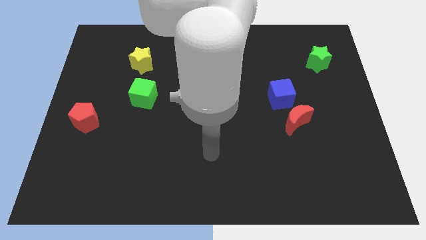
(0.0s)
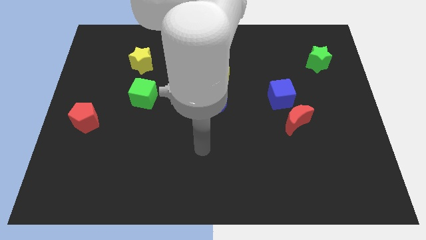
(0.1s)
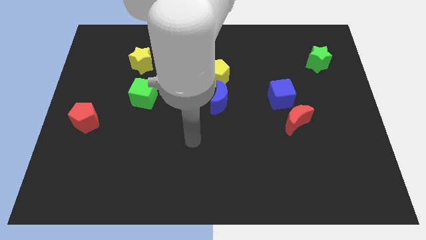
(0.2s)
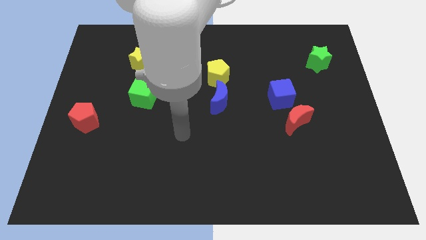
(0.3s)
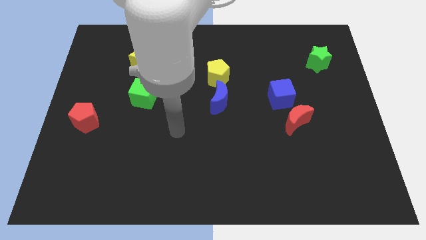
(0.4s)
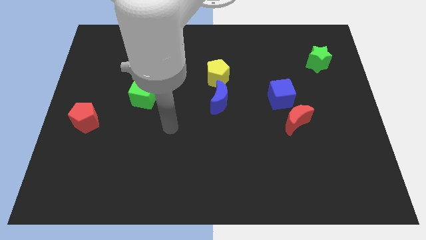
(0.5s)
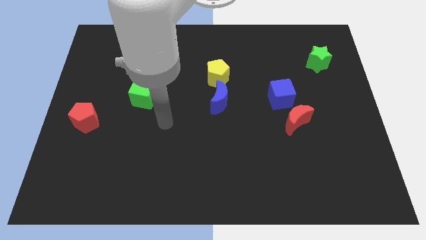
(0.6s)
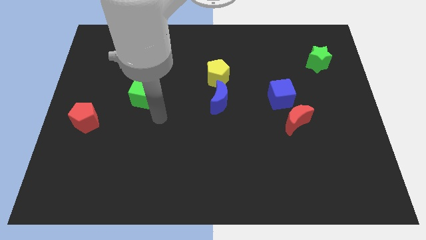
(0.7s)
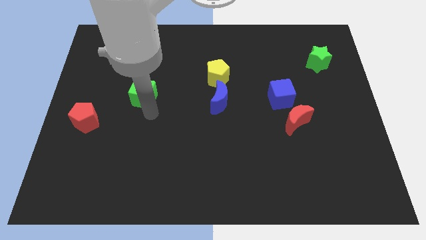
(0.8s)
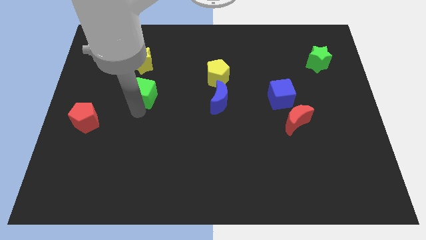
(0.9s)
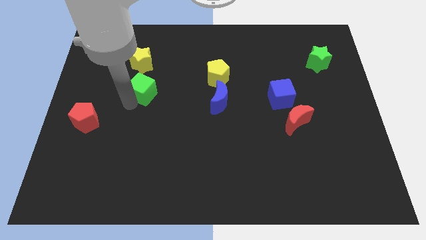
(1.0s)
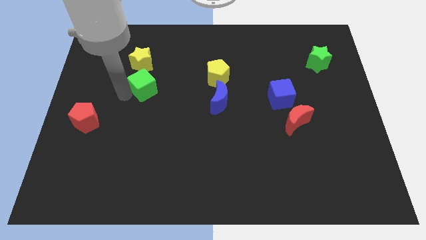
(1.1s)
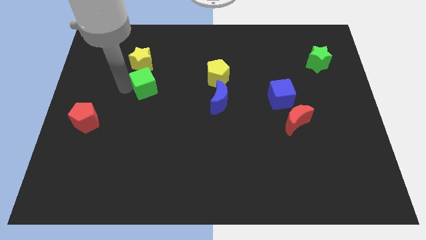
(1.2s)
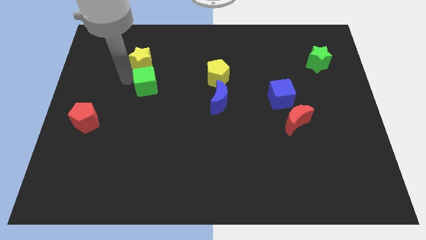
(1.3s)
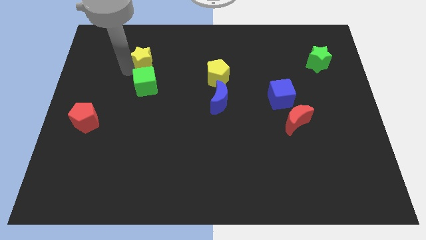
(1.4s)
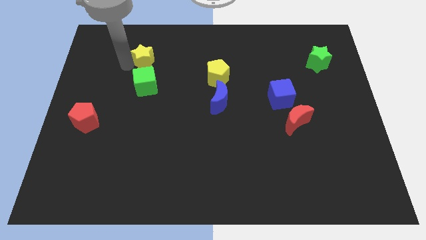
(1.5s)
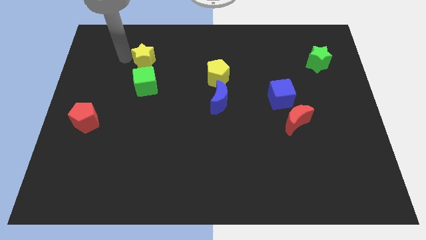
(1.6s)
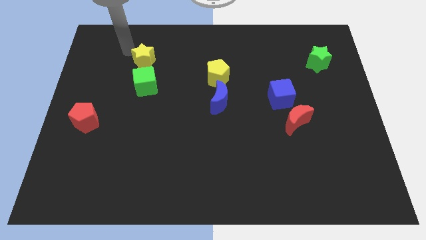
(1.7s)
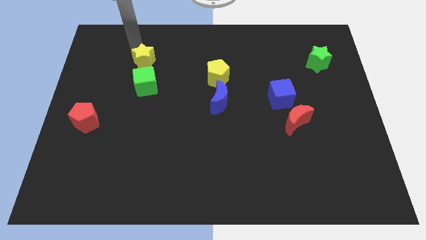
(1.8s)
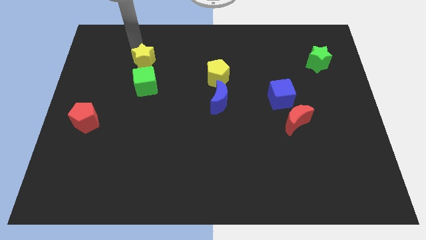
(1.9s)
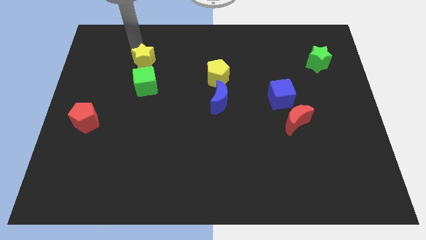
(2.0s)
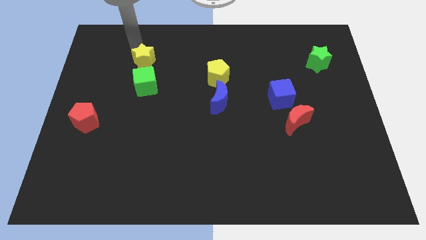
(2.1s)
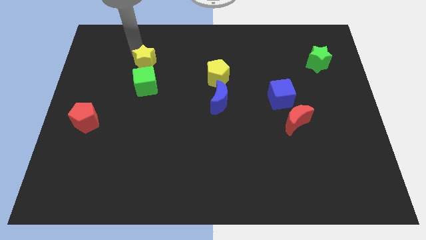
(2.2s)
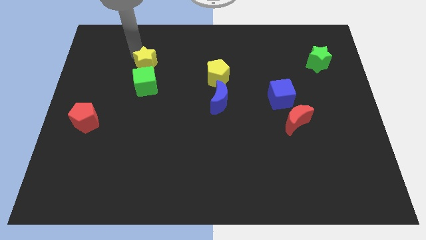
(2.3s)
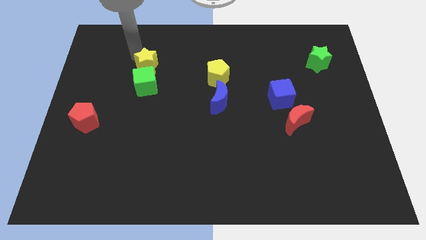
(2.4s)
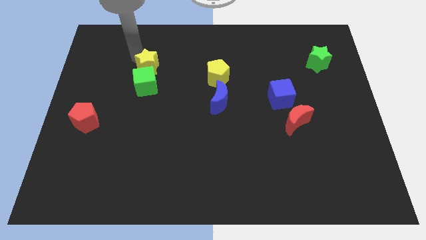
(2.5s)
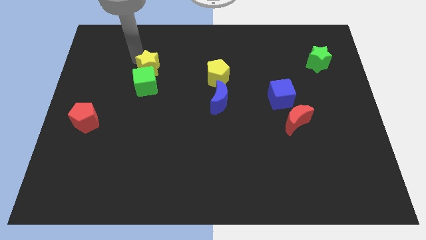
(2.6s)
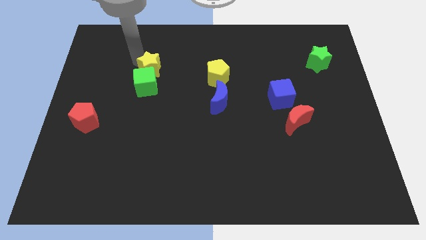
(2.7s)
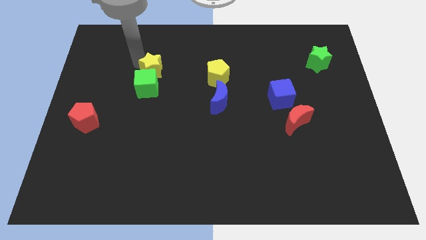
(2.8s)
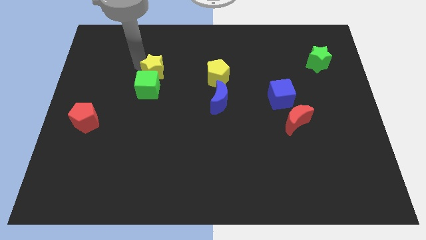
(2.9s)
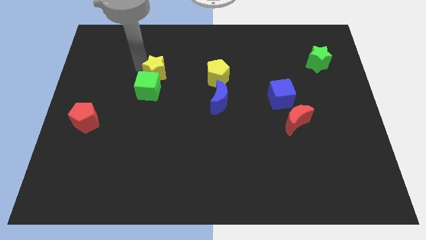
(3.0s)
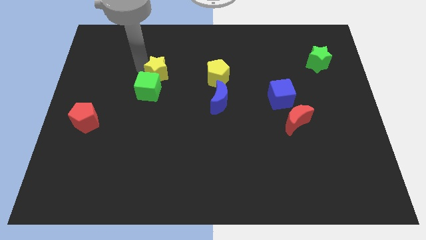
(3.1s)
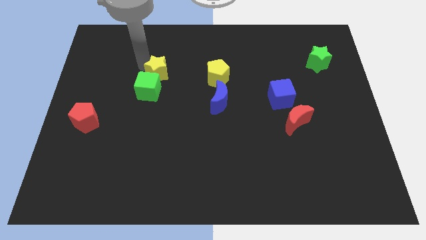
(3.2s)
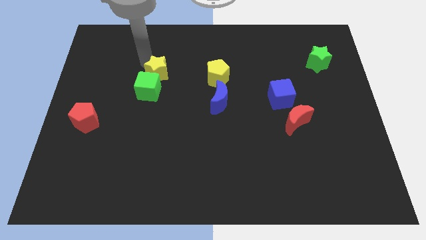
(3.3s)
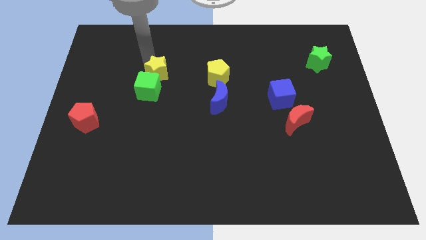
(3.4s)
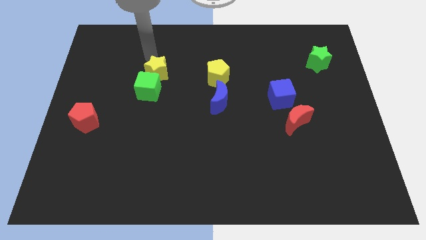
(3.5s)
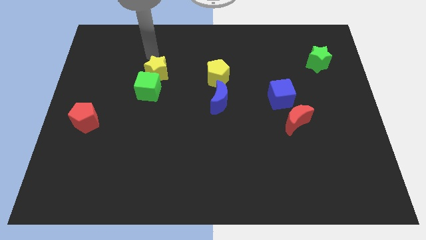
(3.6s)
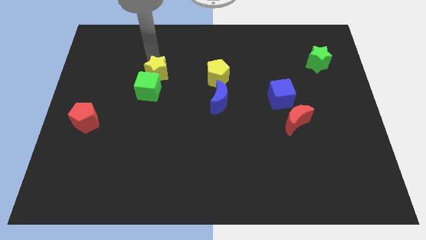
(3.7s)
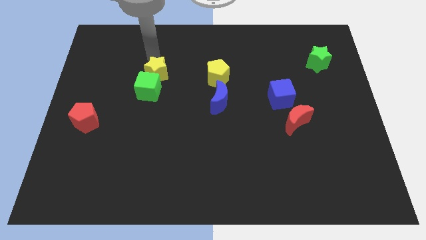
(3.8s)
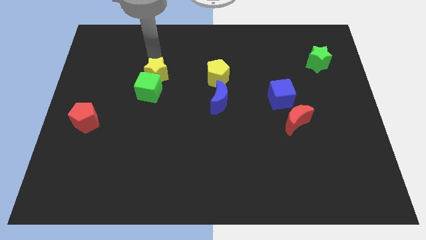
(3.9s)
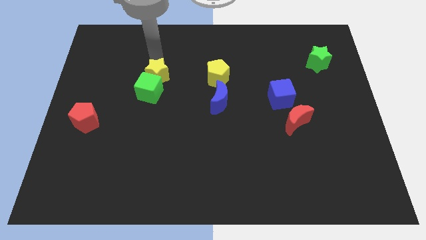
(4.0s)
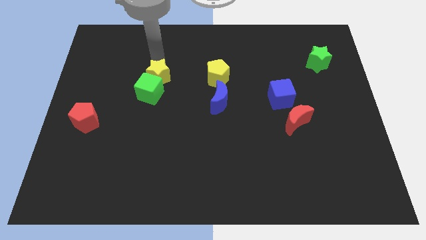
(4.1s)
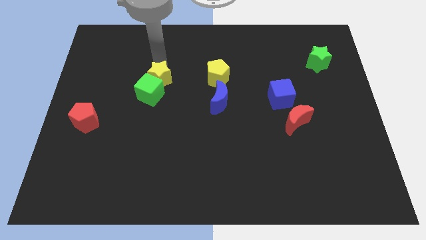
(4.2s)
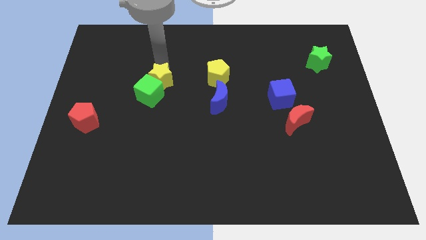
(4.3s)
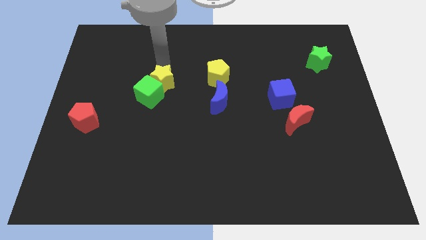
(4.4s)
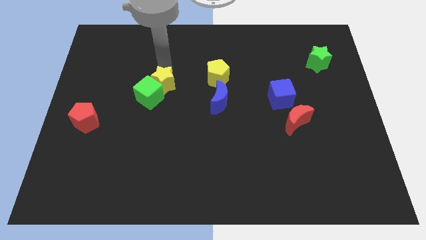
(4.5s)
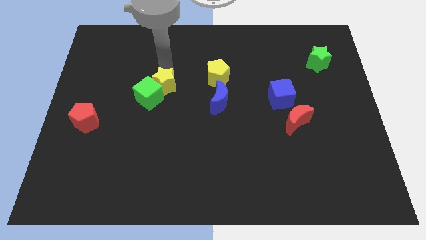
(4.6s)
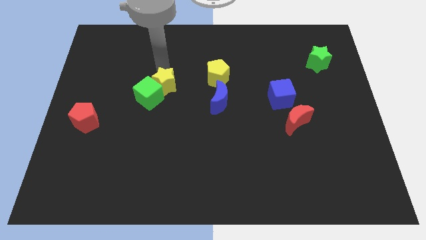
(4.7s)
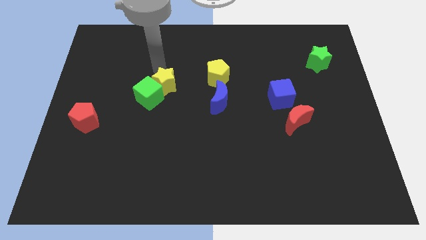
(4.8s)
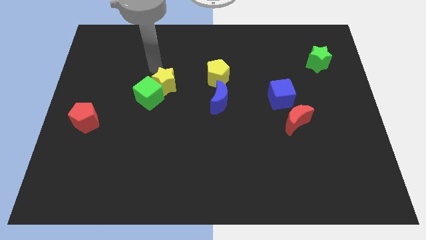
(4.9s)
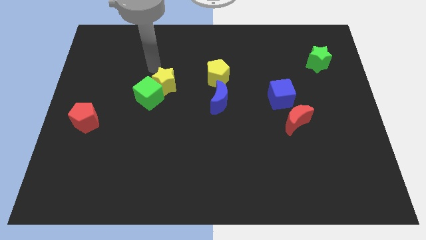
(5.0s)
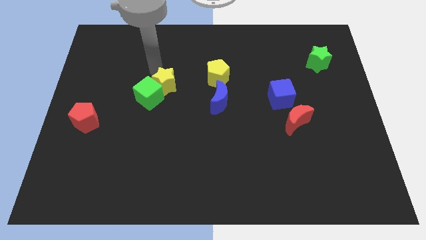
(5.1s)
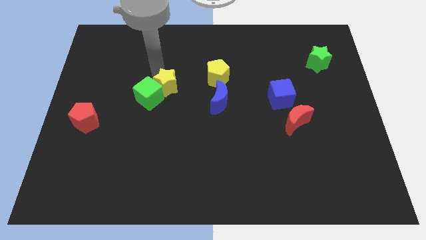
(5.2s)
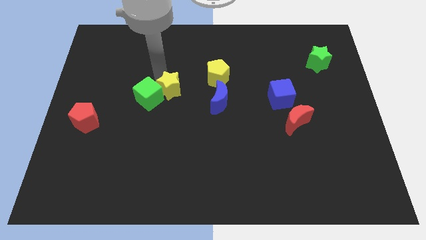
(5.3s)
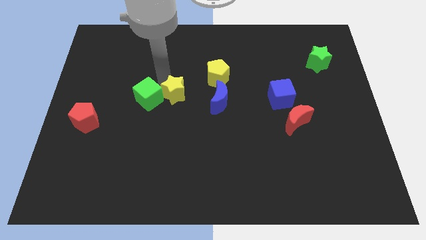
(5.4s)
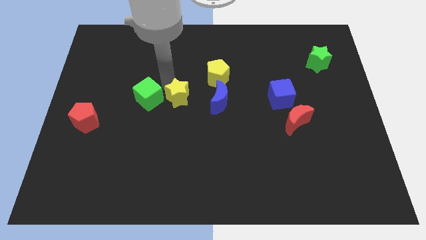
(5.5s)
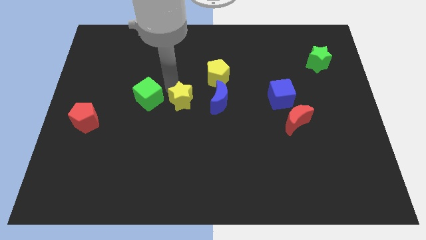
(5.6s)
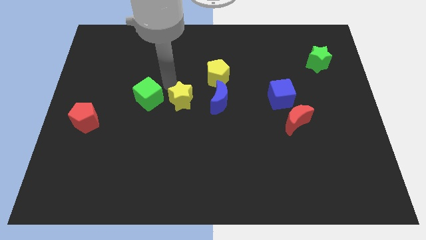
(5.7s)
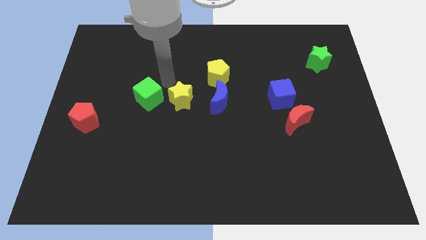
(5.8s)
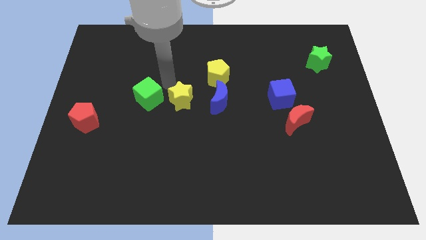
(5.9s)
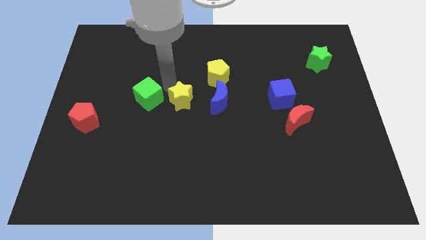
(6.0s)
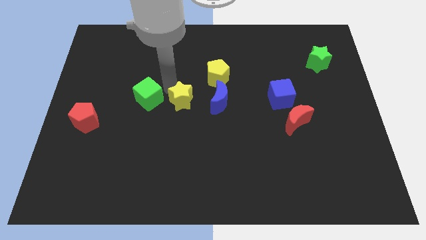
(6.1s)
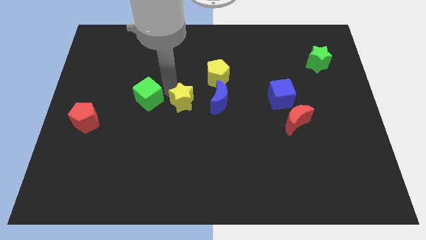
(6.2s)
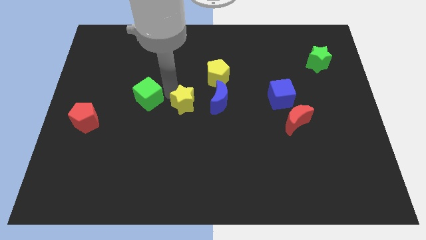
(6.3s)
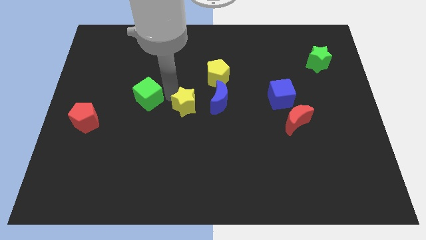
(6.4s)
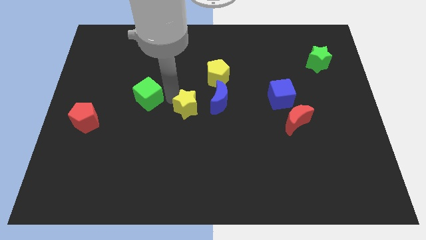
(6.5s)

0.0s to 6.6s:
put the yellow star diagonally down and to the left of the blue moon

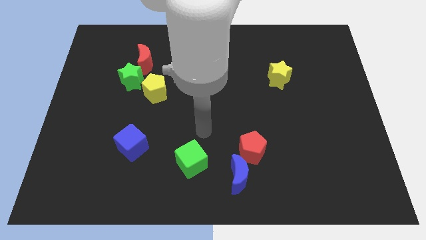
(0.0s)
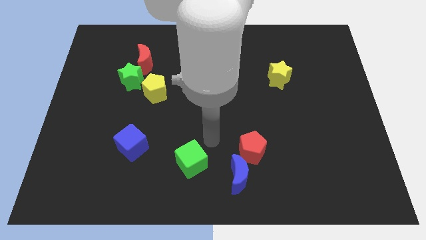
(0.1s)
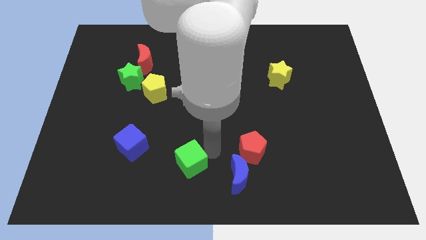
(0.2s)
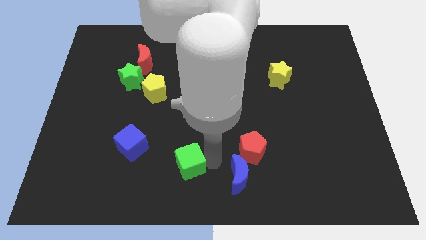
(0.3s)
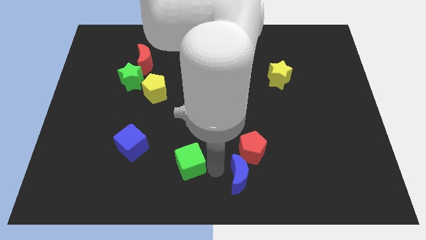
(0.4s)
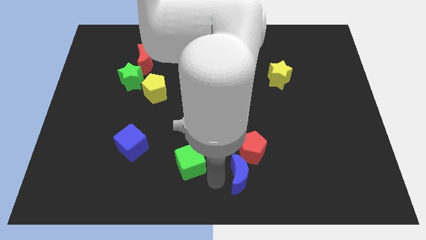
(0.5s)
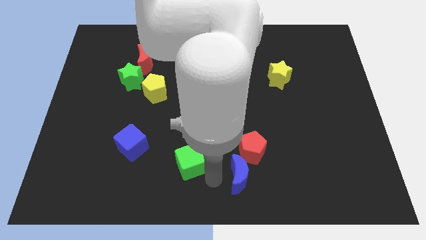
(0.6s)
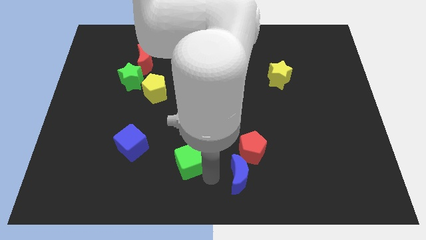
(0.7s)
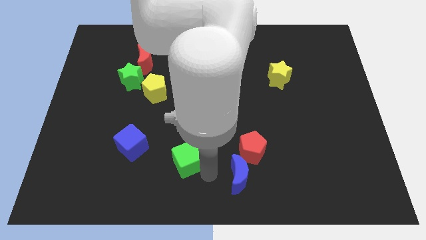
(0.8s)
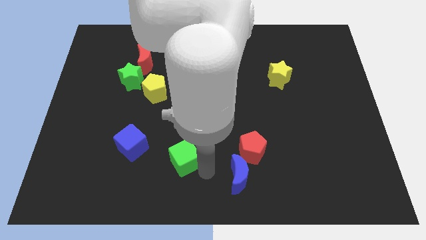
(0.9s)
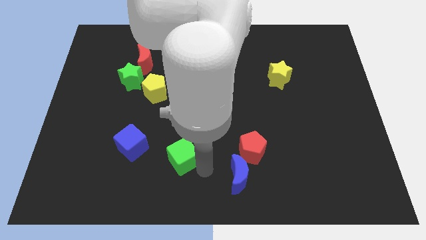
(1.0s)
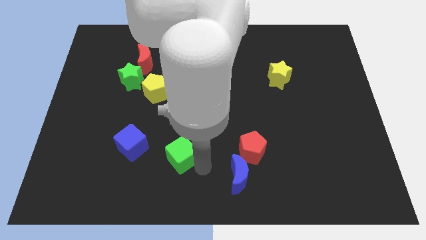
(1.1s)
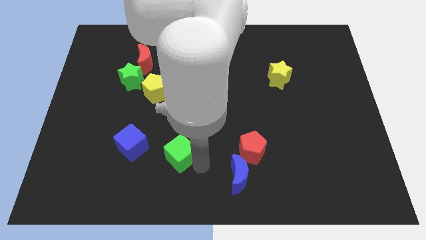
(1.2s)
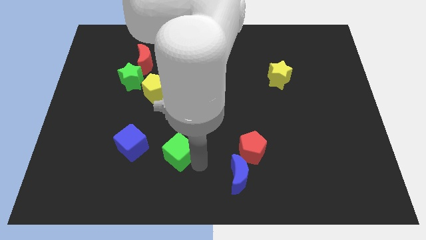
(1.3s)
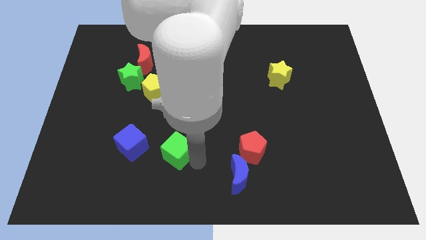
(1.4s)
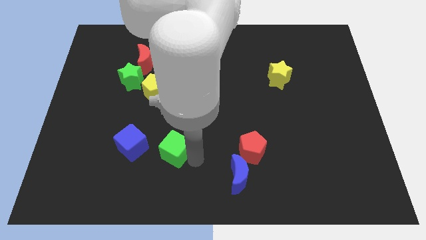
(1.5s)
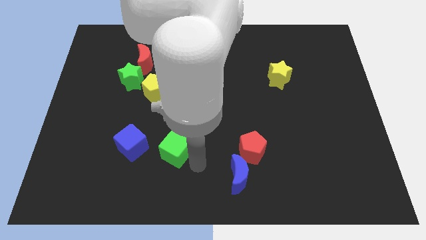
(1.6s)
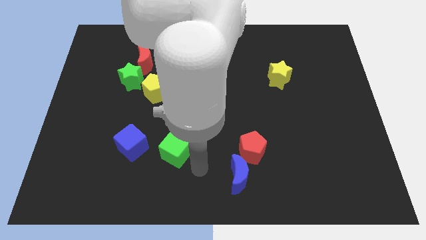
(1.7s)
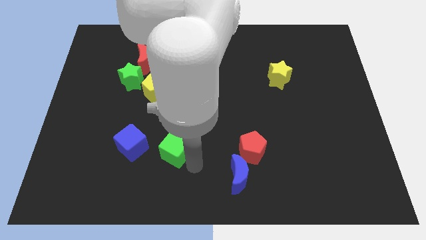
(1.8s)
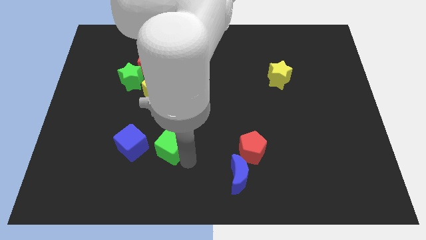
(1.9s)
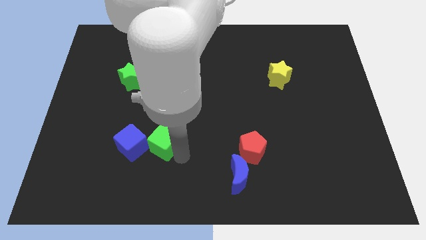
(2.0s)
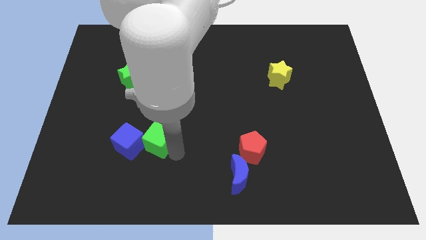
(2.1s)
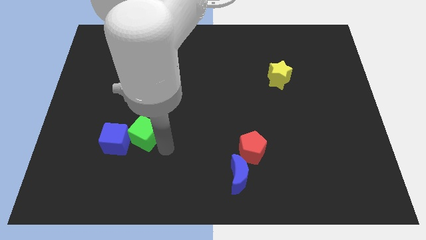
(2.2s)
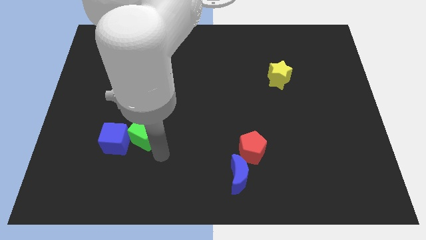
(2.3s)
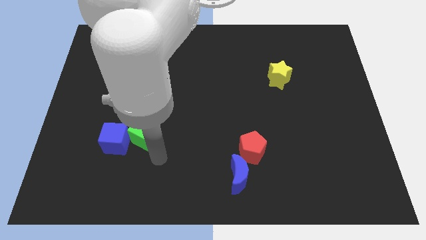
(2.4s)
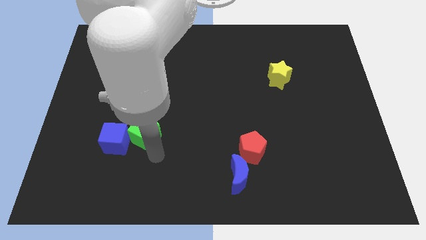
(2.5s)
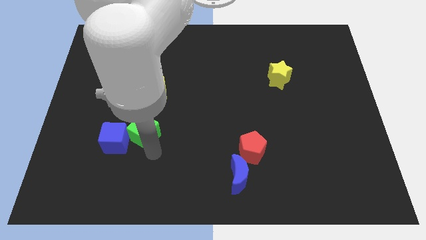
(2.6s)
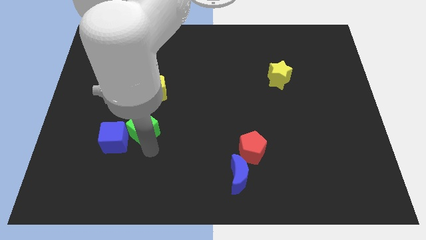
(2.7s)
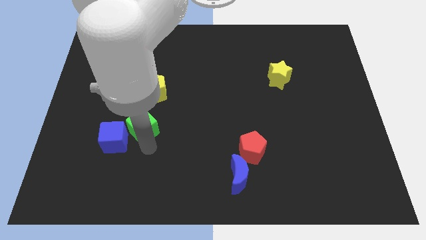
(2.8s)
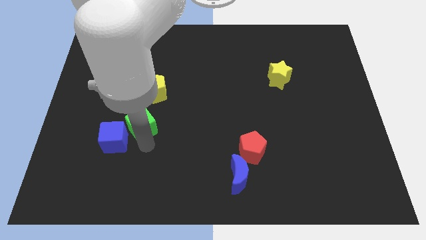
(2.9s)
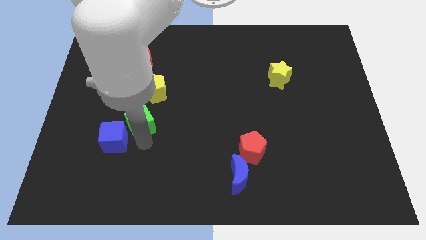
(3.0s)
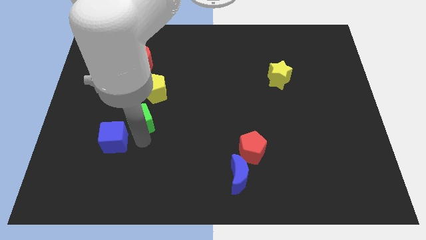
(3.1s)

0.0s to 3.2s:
push the green cube diagonally down and to the left of the yellow pentagon
